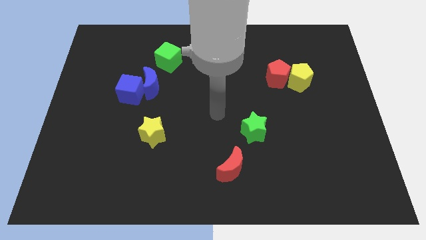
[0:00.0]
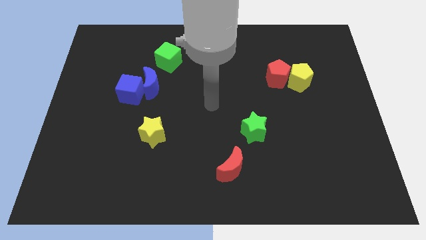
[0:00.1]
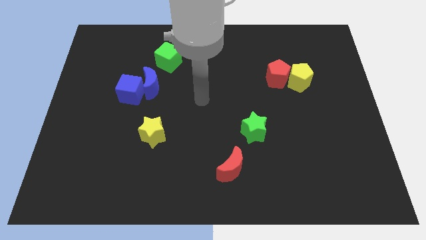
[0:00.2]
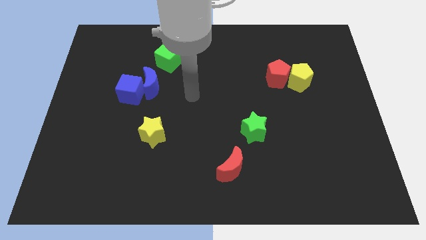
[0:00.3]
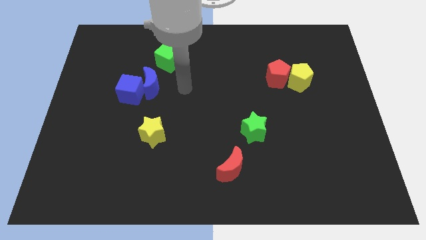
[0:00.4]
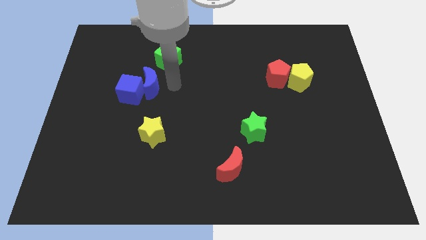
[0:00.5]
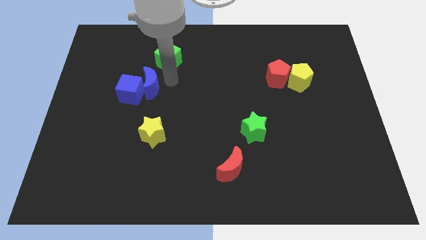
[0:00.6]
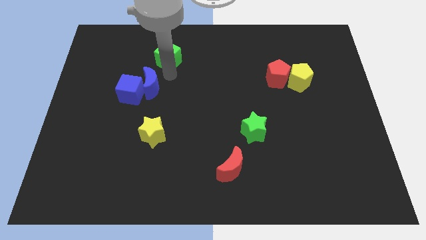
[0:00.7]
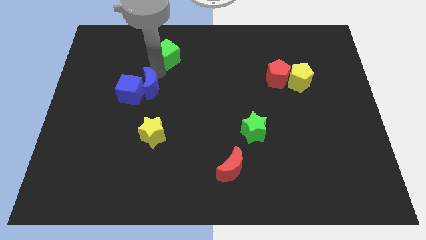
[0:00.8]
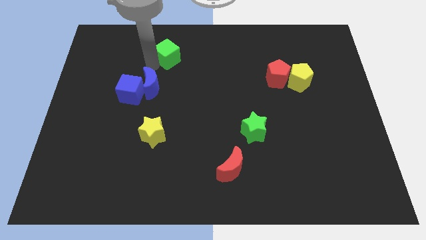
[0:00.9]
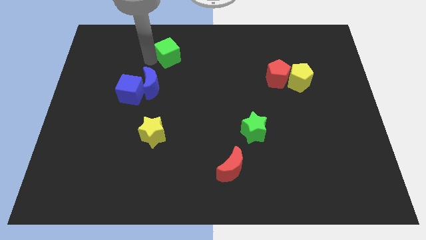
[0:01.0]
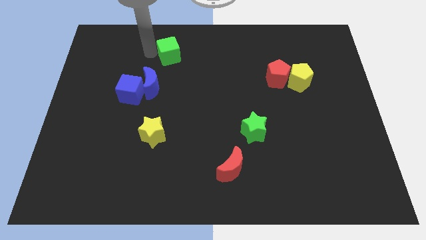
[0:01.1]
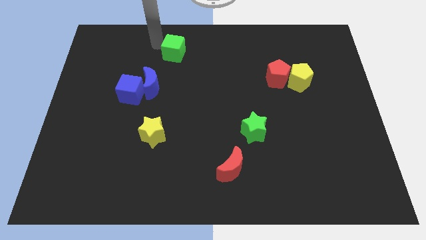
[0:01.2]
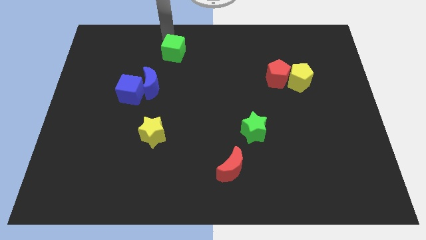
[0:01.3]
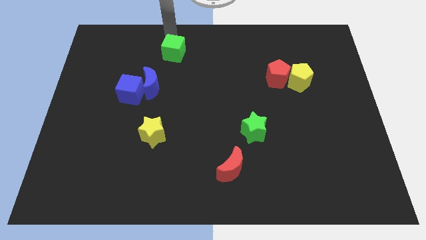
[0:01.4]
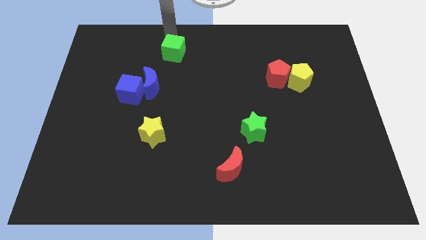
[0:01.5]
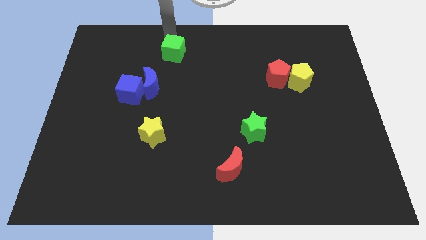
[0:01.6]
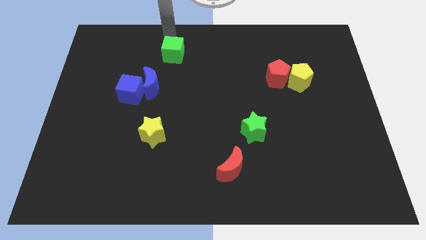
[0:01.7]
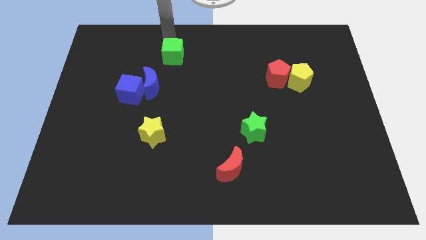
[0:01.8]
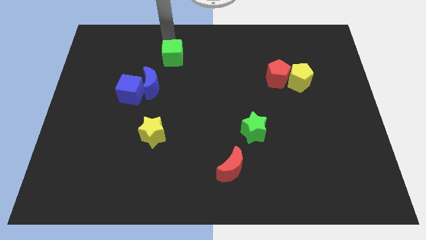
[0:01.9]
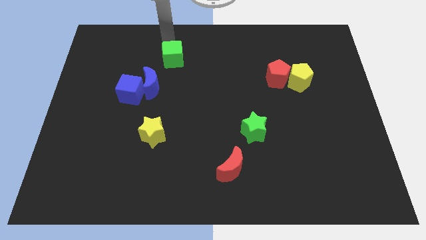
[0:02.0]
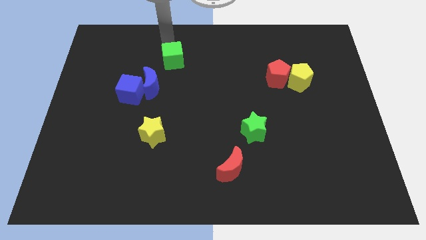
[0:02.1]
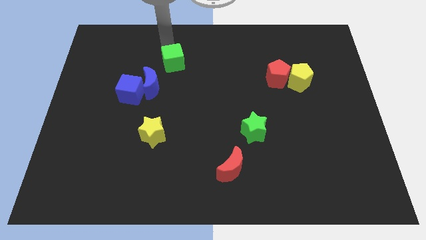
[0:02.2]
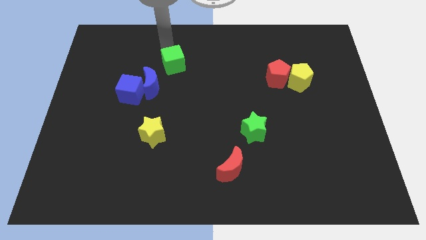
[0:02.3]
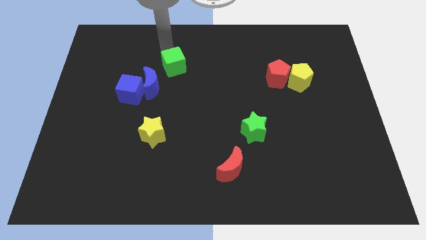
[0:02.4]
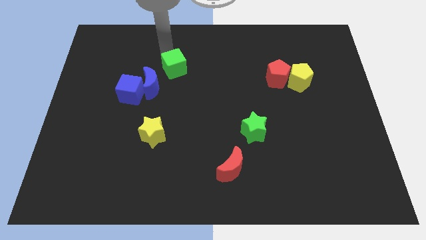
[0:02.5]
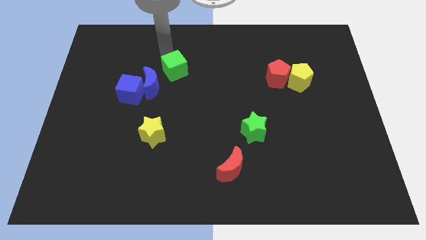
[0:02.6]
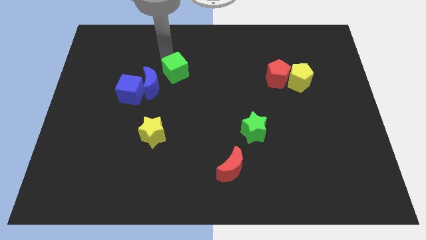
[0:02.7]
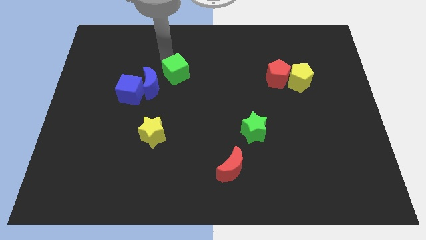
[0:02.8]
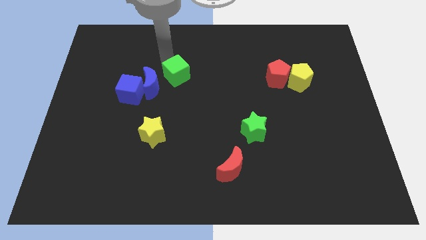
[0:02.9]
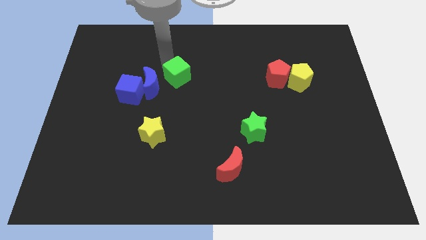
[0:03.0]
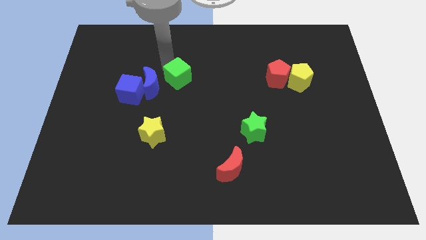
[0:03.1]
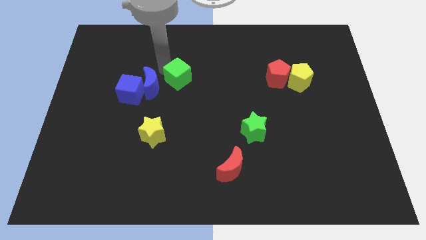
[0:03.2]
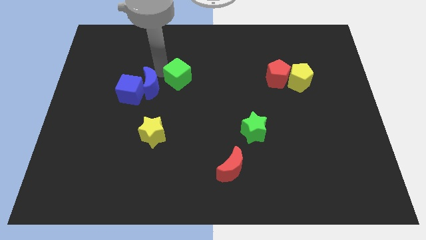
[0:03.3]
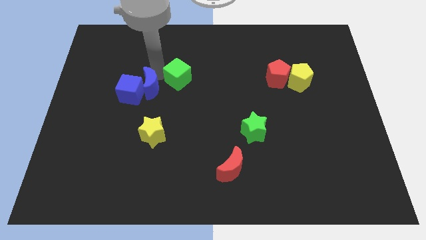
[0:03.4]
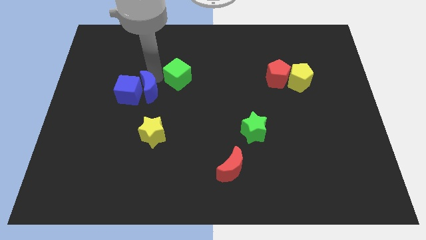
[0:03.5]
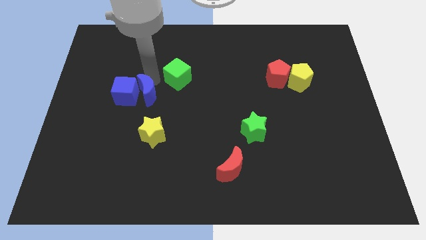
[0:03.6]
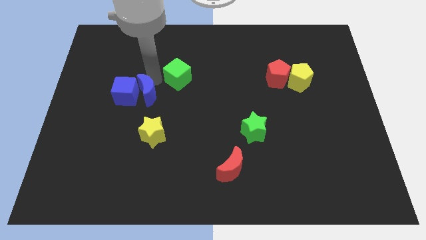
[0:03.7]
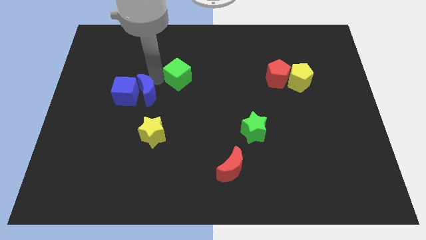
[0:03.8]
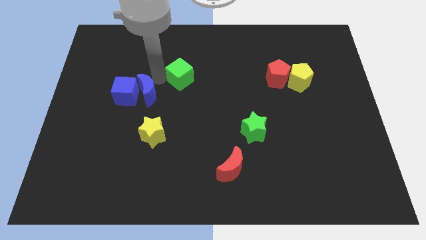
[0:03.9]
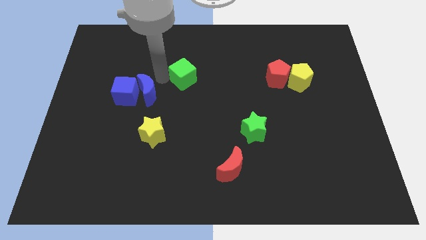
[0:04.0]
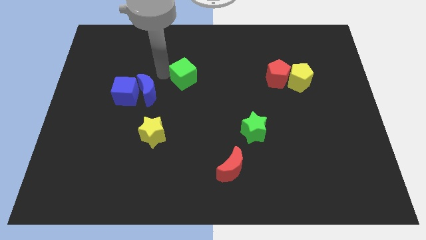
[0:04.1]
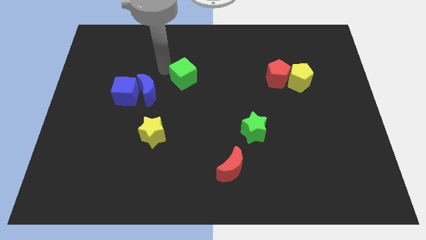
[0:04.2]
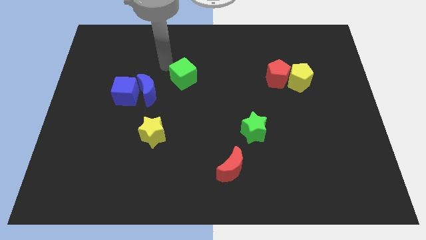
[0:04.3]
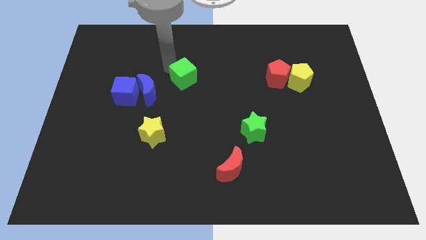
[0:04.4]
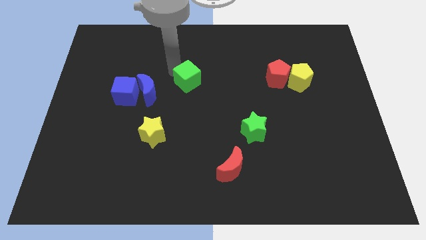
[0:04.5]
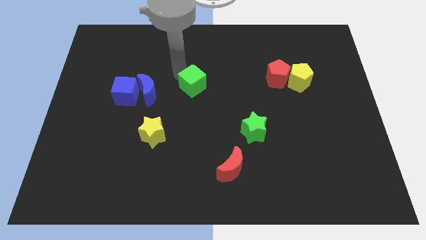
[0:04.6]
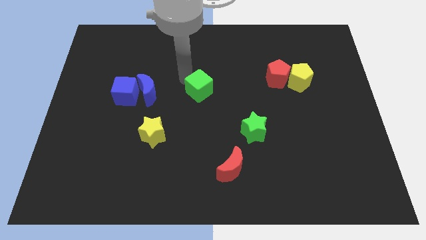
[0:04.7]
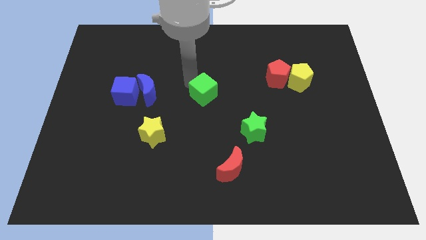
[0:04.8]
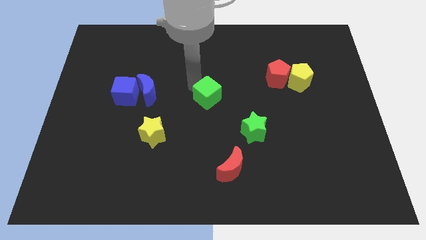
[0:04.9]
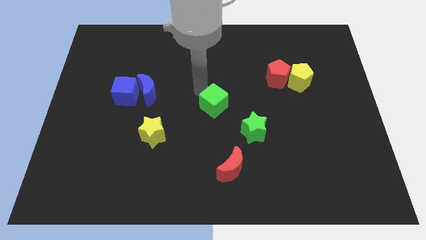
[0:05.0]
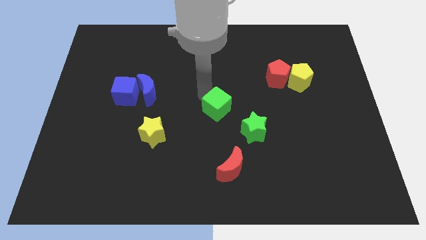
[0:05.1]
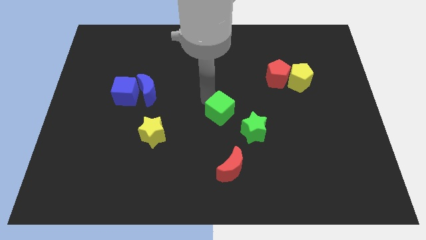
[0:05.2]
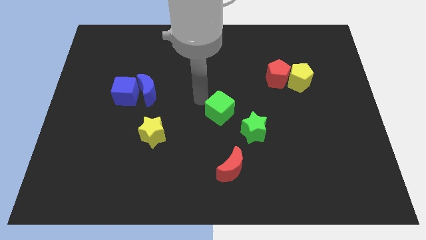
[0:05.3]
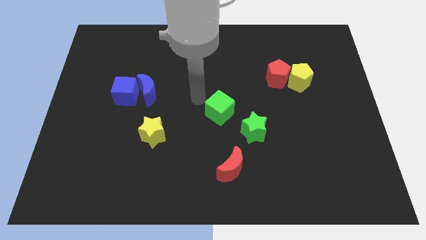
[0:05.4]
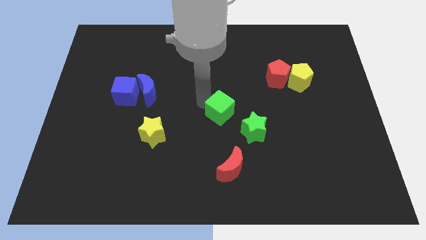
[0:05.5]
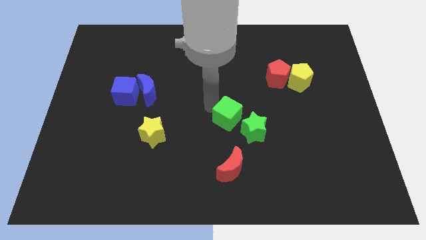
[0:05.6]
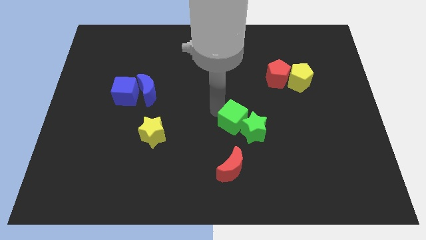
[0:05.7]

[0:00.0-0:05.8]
slide the green cube close to the green star
